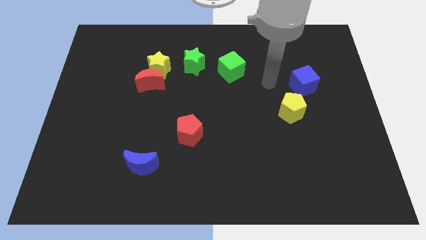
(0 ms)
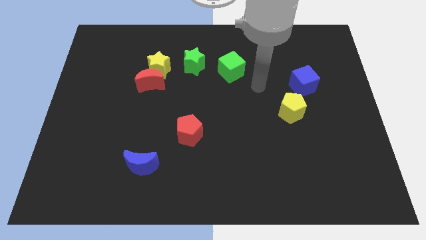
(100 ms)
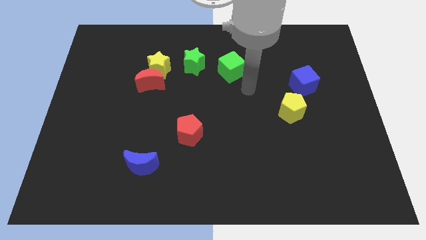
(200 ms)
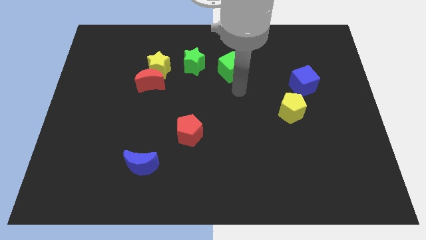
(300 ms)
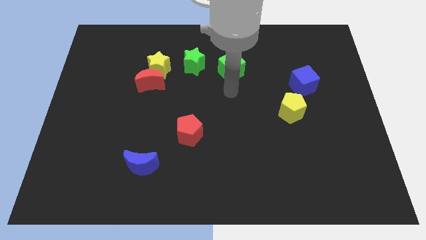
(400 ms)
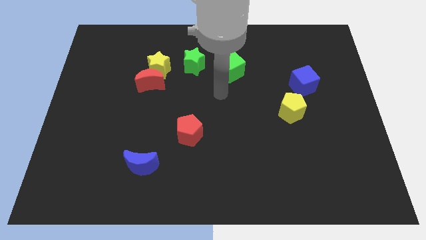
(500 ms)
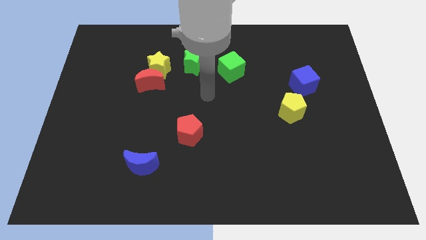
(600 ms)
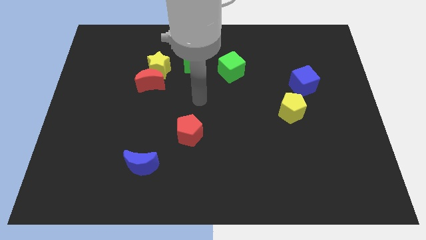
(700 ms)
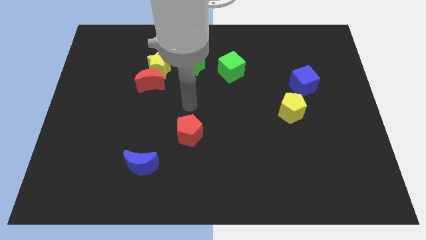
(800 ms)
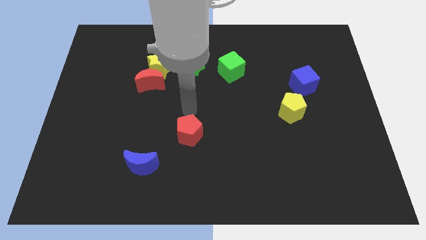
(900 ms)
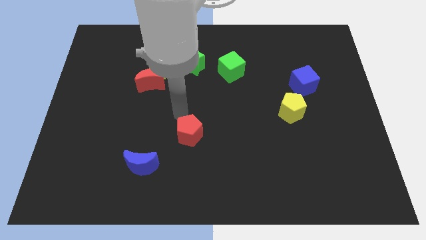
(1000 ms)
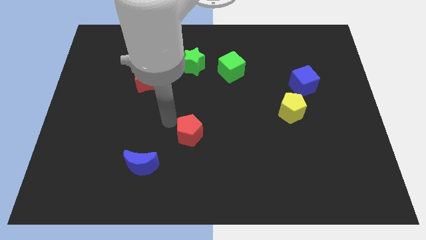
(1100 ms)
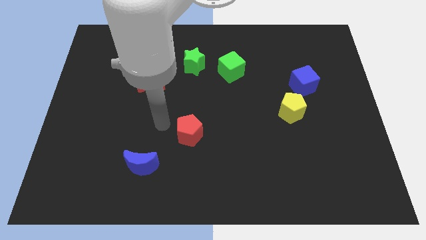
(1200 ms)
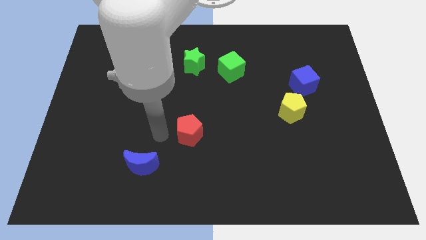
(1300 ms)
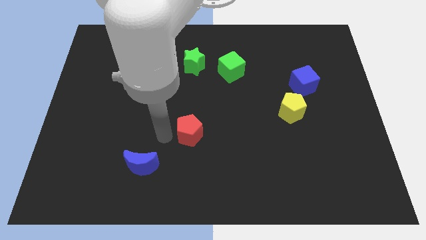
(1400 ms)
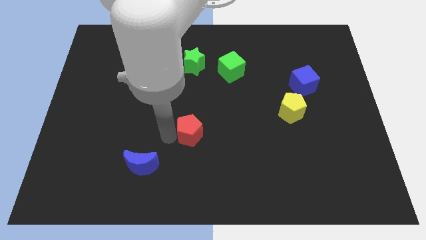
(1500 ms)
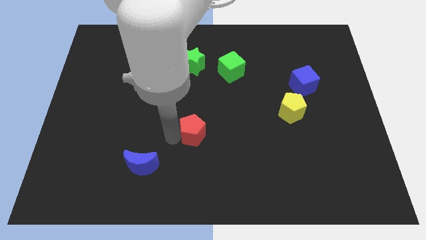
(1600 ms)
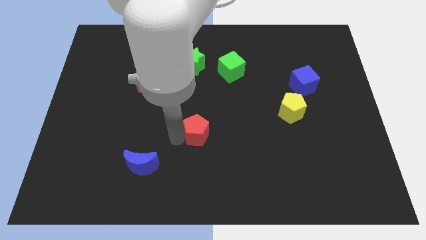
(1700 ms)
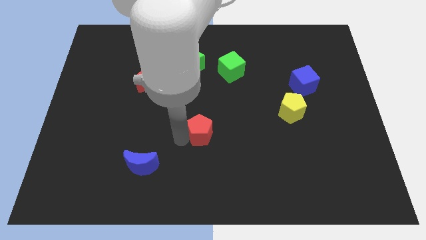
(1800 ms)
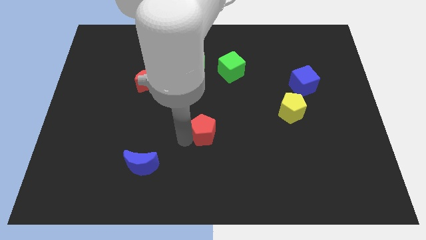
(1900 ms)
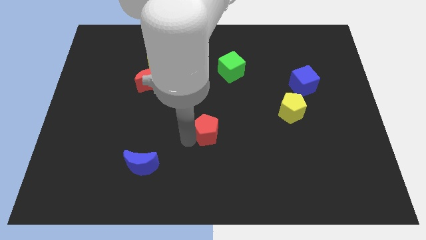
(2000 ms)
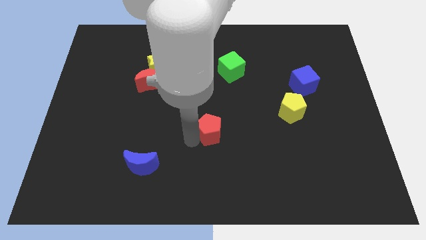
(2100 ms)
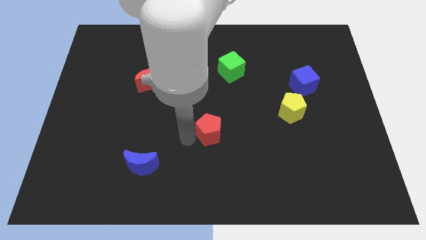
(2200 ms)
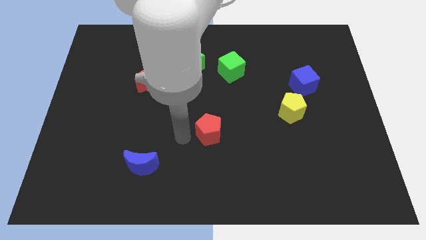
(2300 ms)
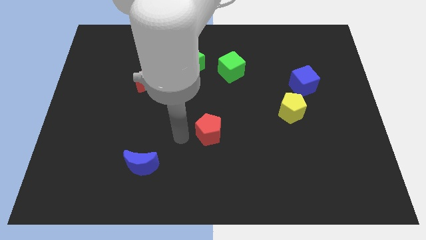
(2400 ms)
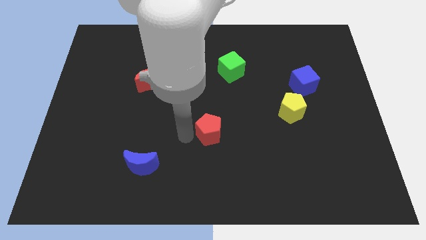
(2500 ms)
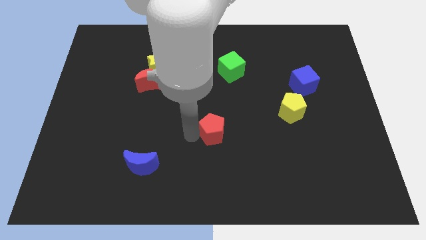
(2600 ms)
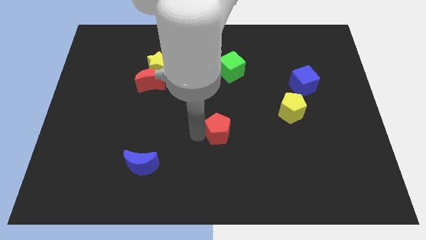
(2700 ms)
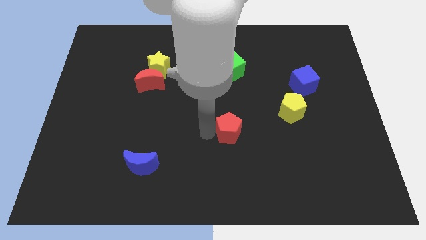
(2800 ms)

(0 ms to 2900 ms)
push the red pentagon slightly right

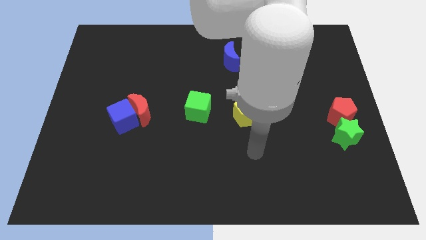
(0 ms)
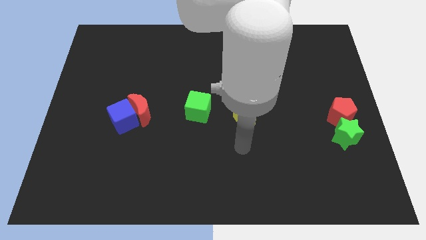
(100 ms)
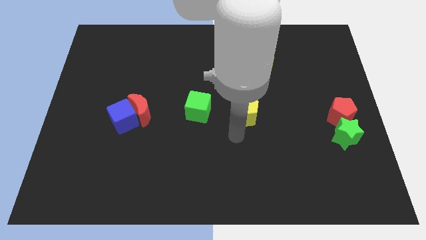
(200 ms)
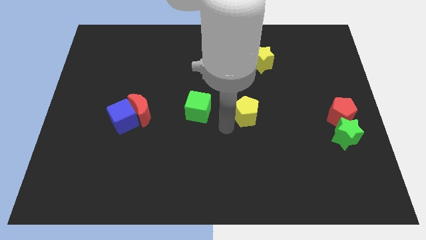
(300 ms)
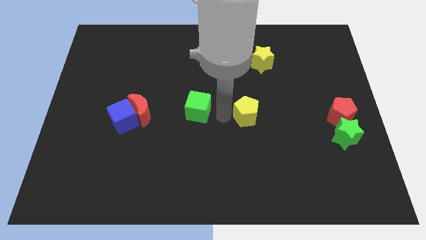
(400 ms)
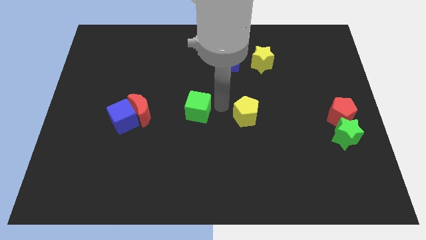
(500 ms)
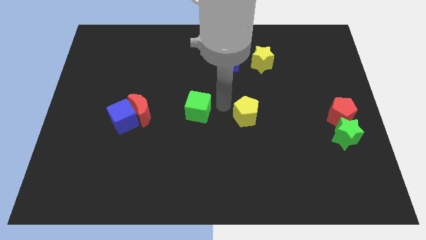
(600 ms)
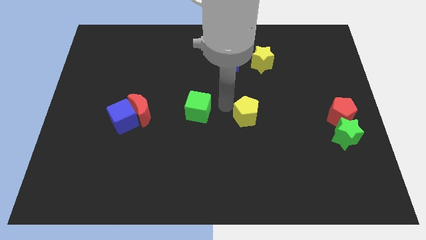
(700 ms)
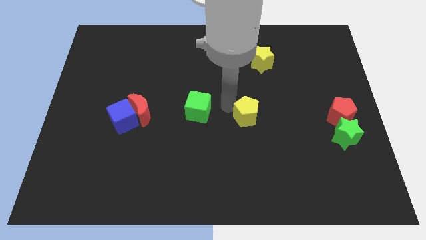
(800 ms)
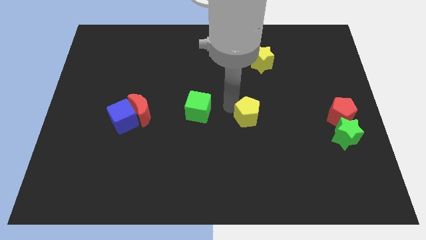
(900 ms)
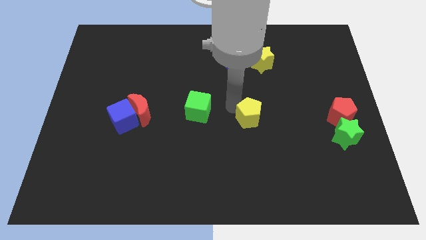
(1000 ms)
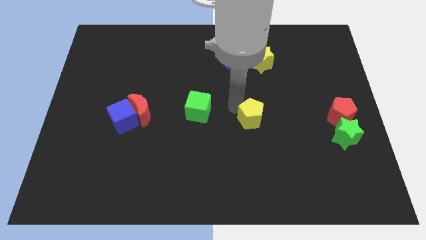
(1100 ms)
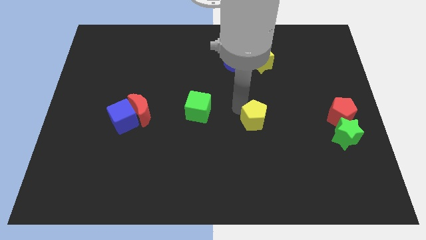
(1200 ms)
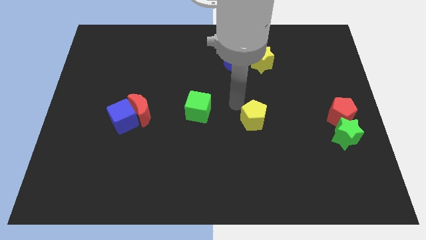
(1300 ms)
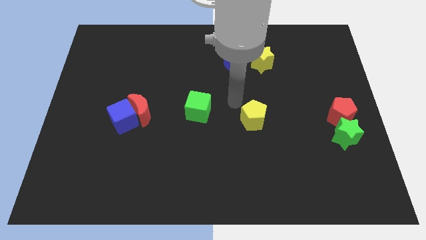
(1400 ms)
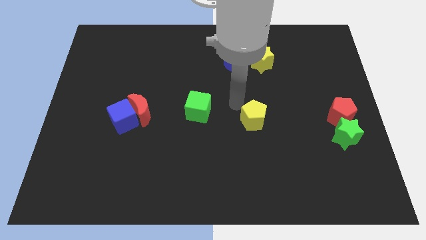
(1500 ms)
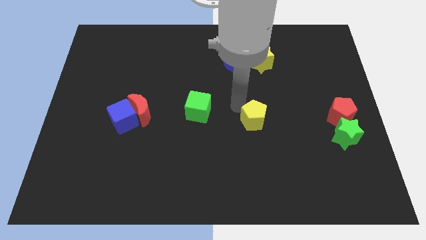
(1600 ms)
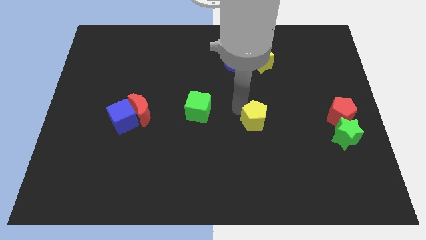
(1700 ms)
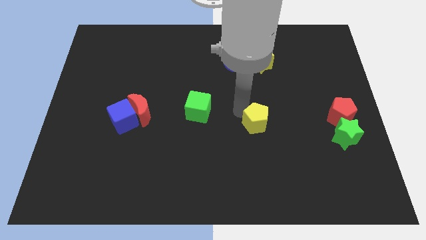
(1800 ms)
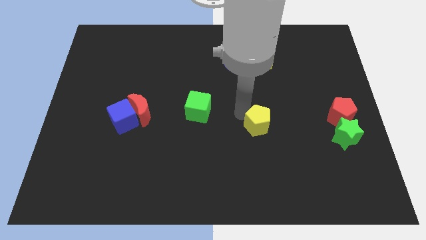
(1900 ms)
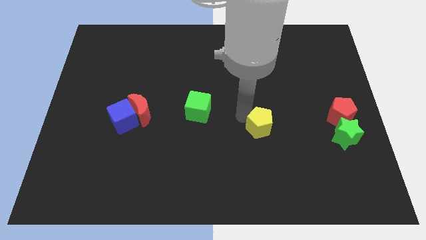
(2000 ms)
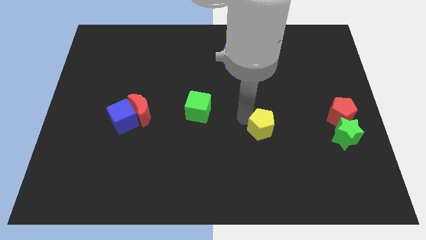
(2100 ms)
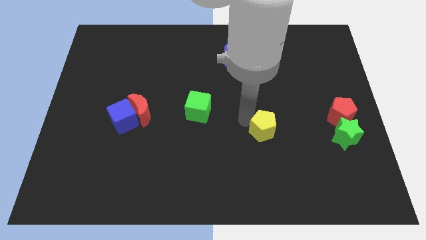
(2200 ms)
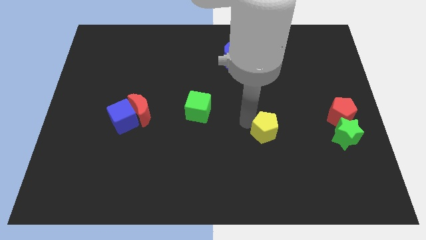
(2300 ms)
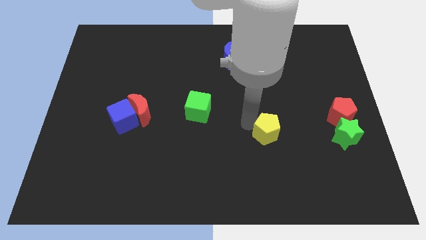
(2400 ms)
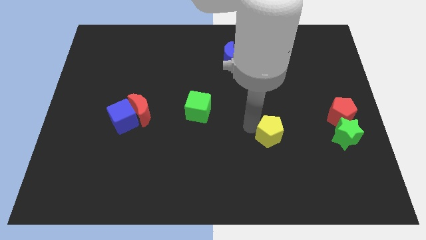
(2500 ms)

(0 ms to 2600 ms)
move the yellow pentagon somewhat downwards and then right

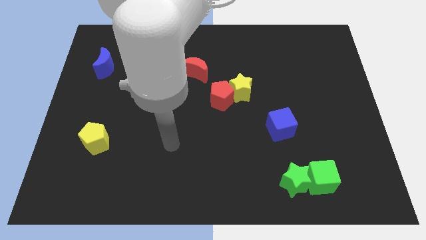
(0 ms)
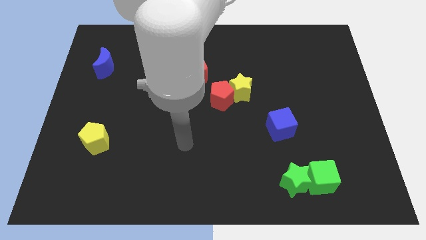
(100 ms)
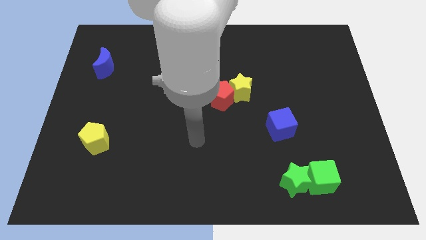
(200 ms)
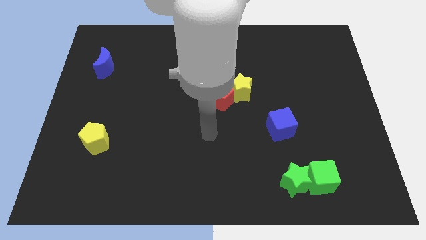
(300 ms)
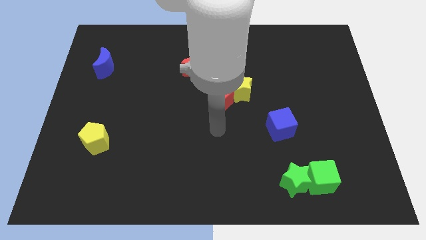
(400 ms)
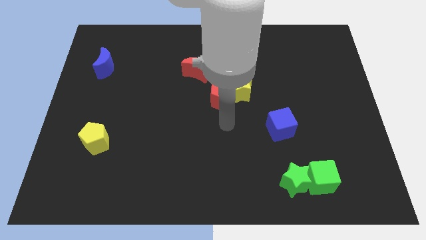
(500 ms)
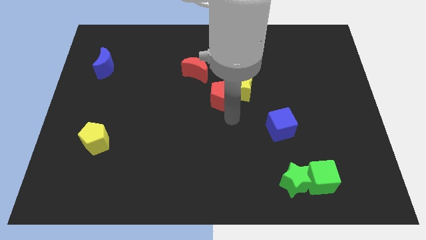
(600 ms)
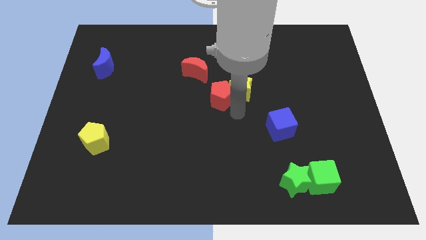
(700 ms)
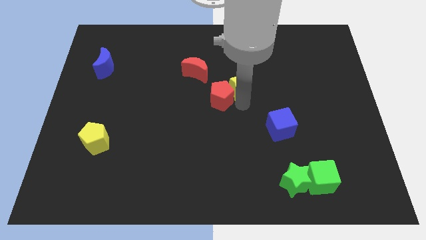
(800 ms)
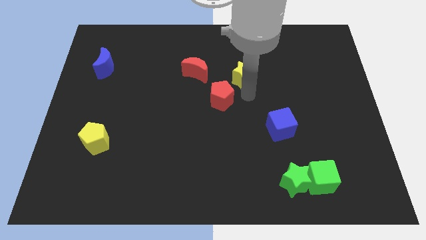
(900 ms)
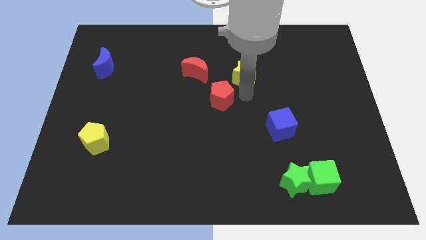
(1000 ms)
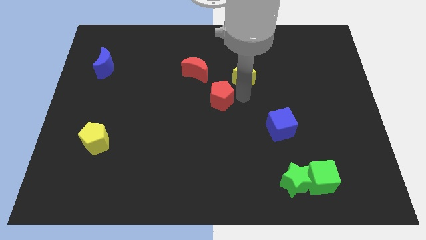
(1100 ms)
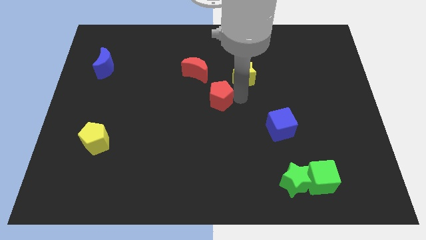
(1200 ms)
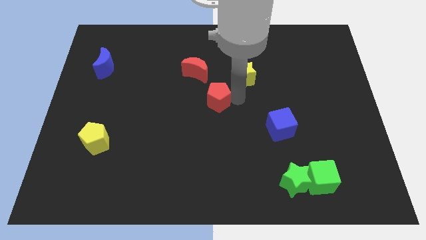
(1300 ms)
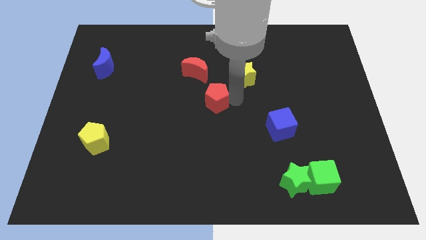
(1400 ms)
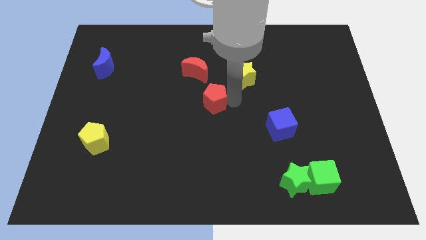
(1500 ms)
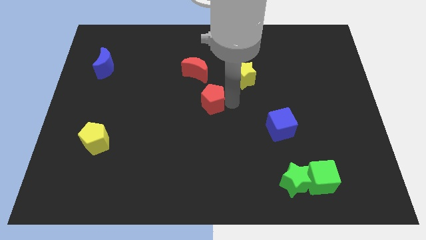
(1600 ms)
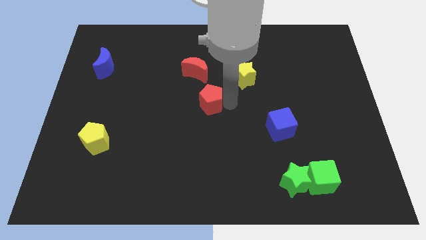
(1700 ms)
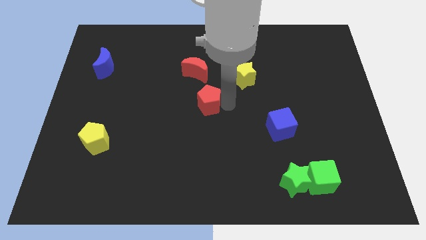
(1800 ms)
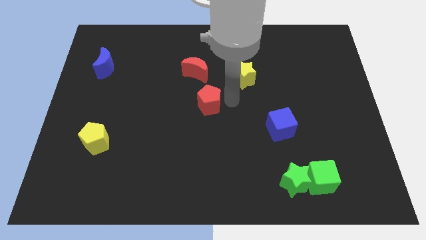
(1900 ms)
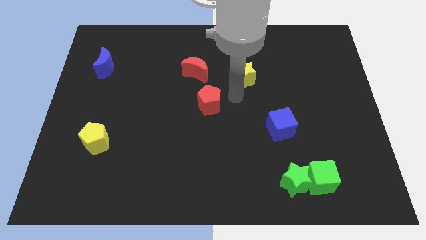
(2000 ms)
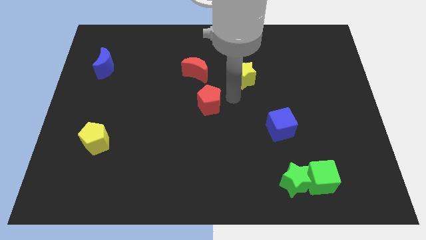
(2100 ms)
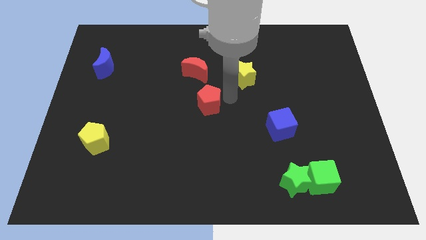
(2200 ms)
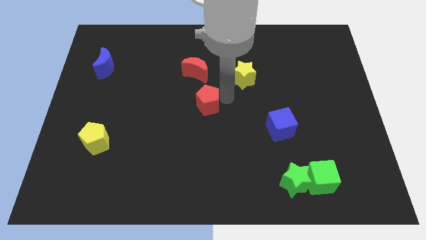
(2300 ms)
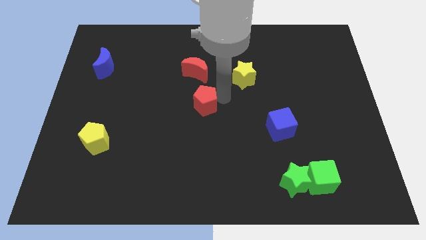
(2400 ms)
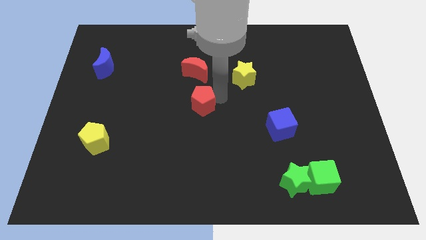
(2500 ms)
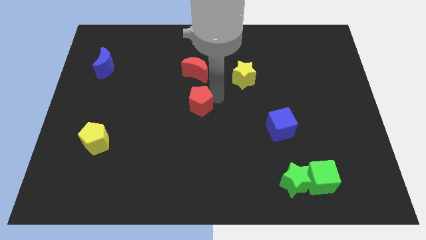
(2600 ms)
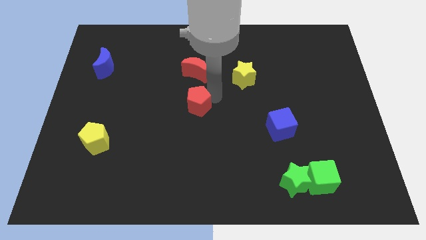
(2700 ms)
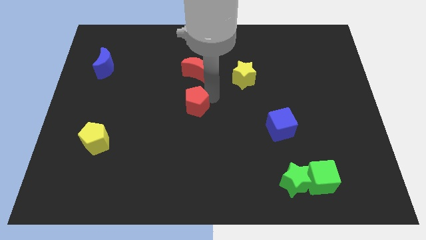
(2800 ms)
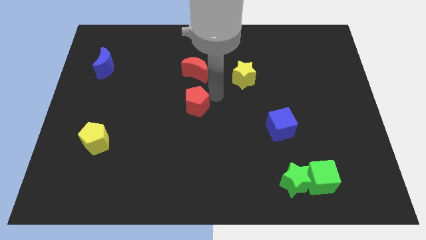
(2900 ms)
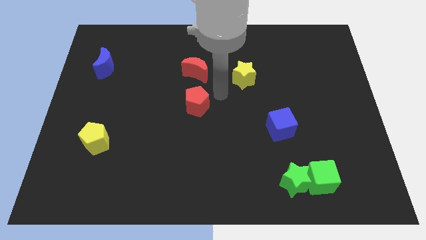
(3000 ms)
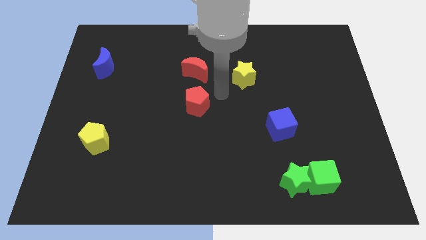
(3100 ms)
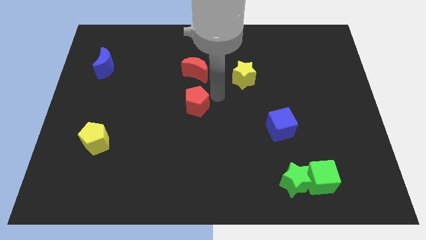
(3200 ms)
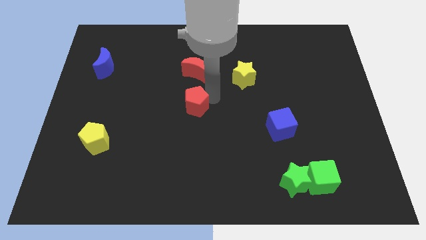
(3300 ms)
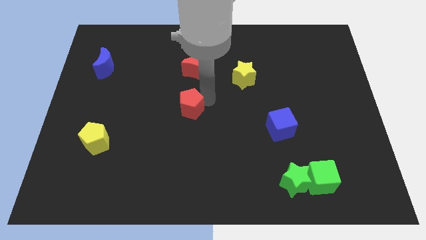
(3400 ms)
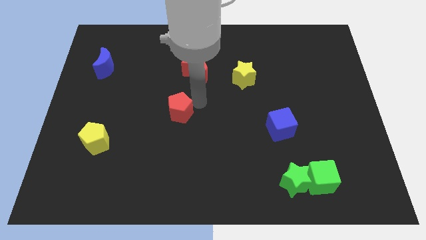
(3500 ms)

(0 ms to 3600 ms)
move the red pentagon downwards and to the left a little
